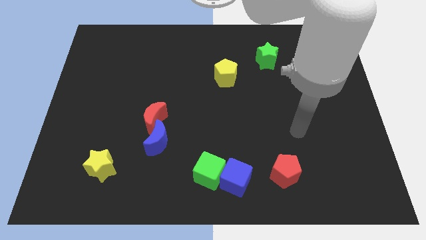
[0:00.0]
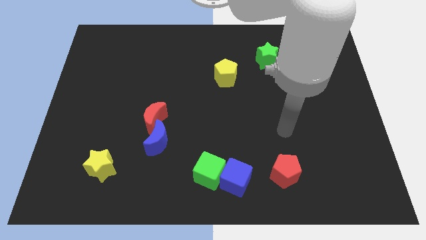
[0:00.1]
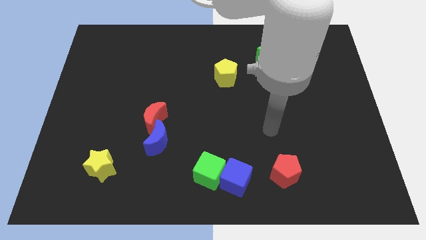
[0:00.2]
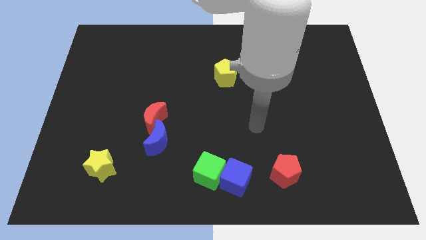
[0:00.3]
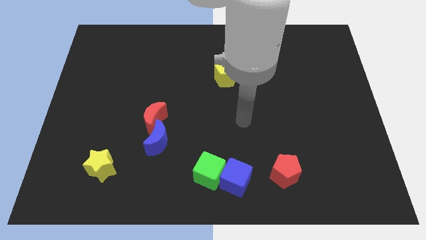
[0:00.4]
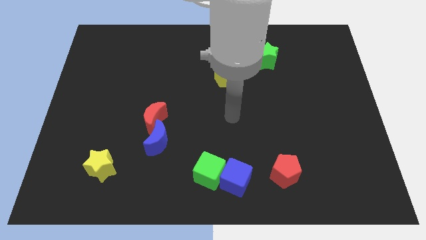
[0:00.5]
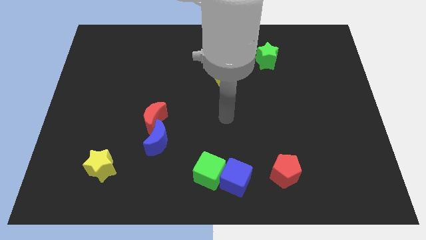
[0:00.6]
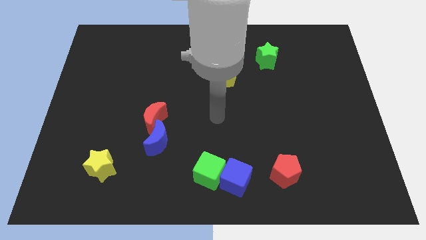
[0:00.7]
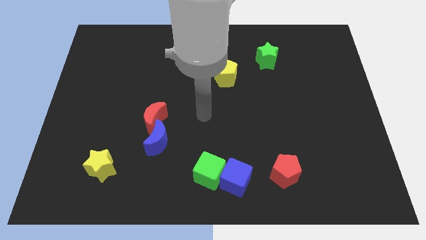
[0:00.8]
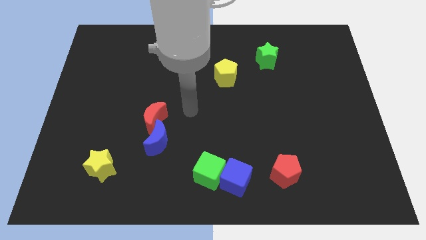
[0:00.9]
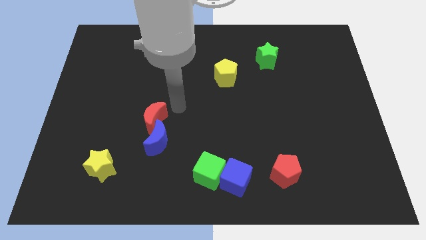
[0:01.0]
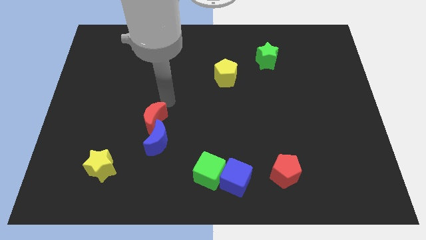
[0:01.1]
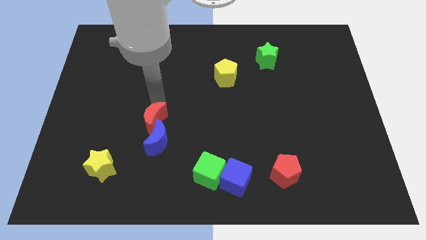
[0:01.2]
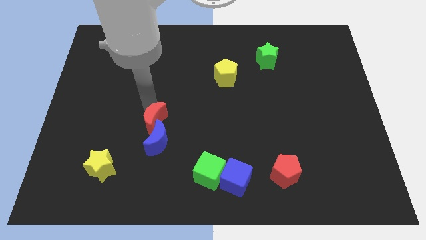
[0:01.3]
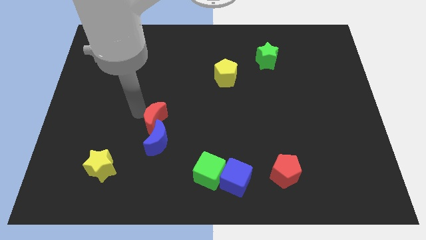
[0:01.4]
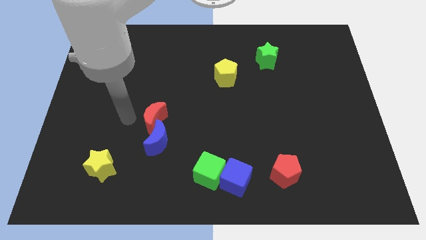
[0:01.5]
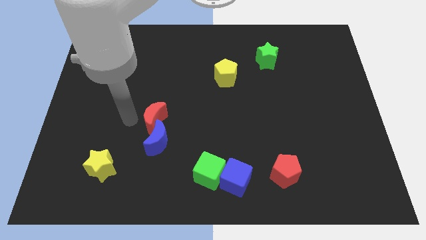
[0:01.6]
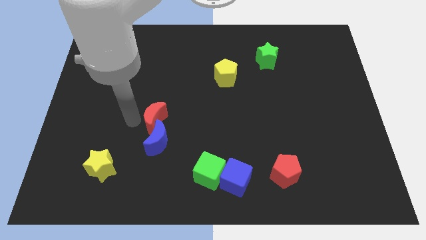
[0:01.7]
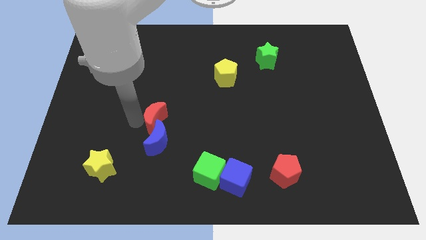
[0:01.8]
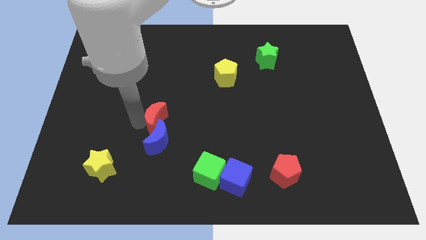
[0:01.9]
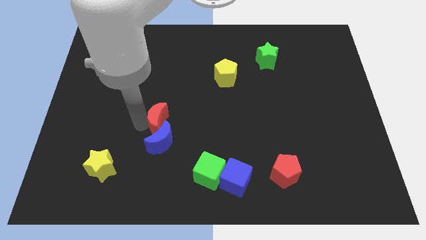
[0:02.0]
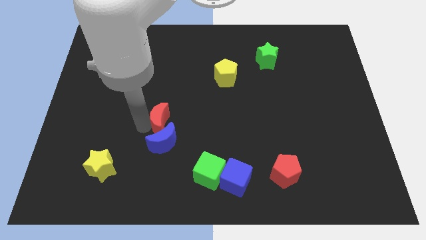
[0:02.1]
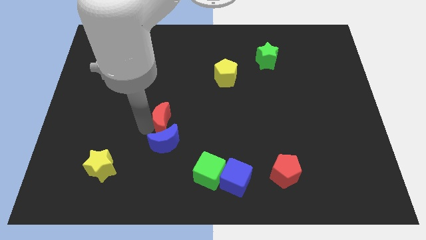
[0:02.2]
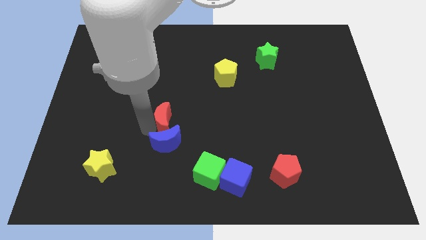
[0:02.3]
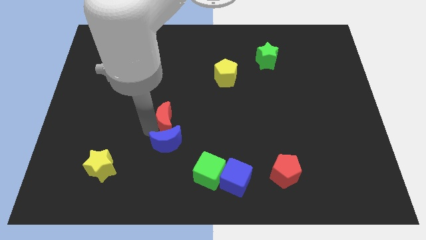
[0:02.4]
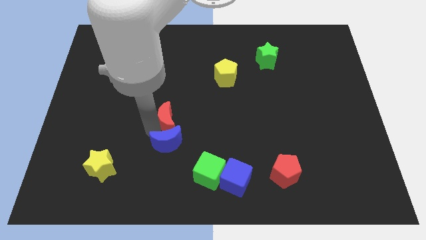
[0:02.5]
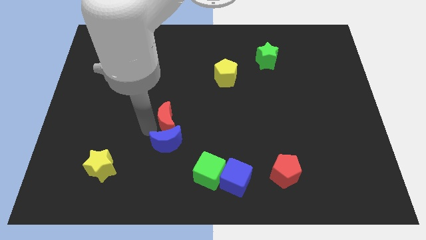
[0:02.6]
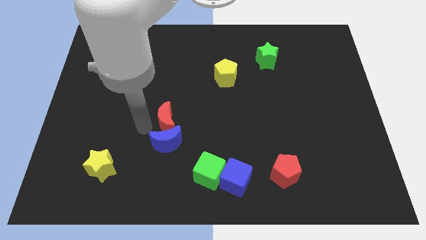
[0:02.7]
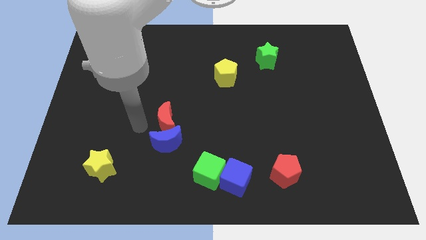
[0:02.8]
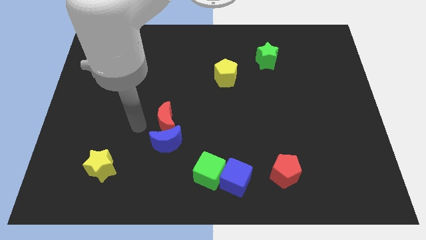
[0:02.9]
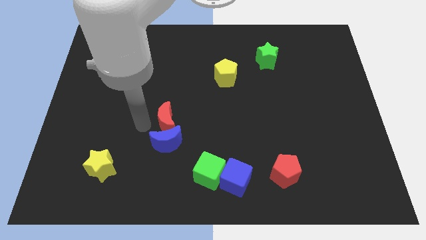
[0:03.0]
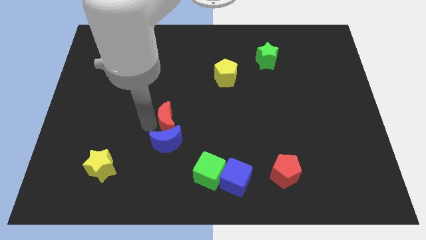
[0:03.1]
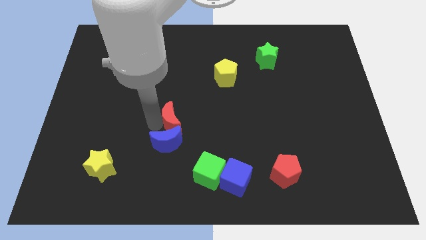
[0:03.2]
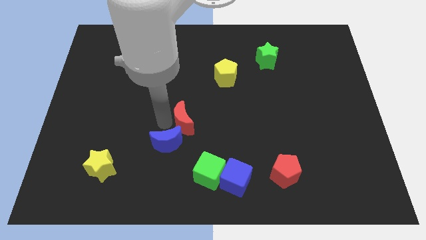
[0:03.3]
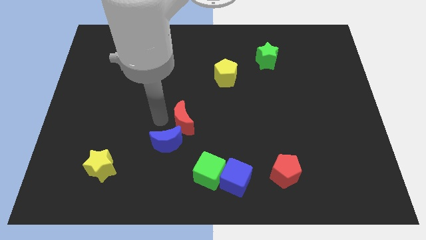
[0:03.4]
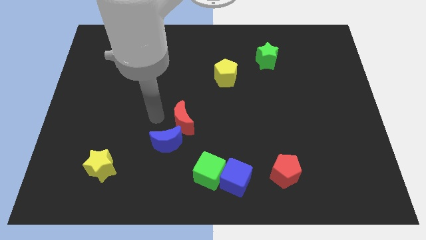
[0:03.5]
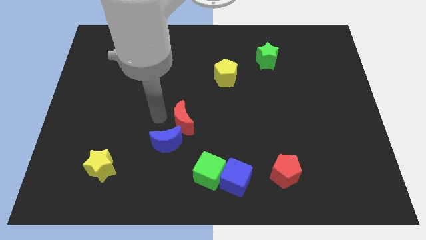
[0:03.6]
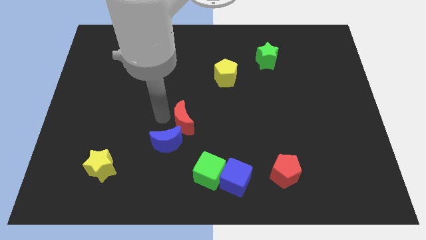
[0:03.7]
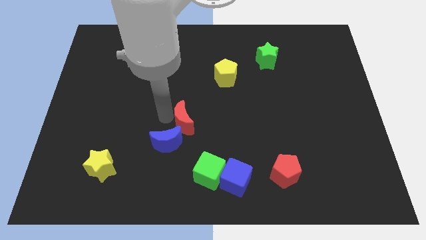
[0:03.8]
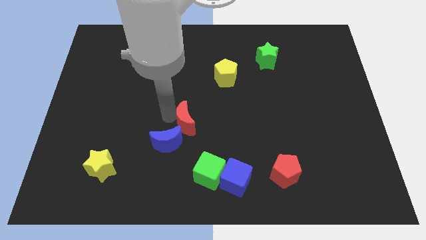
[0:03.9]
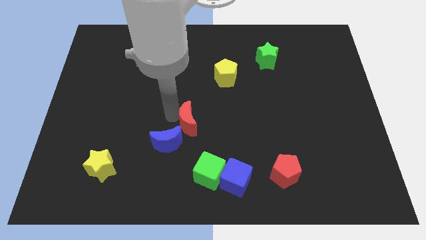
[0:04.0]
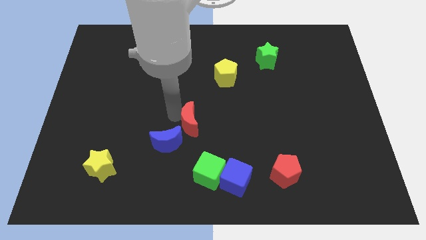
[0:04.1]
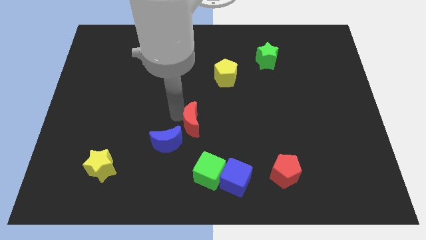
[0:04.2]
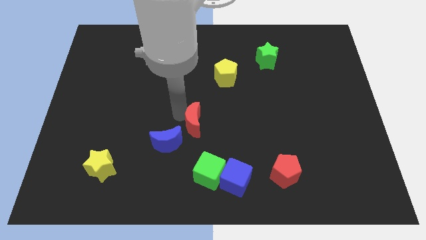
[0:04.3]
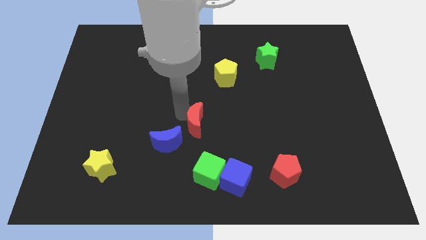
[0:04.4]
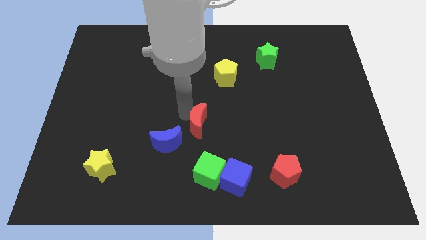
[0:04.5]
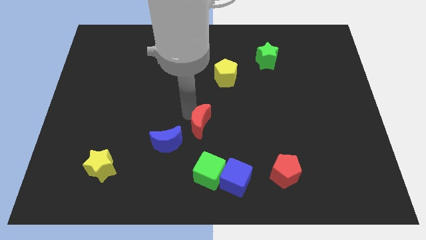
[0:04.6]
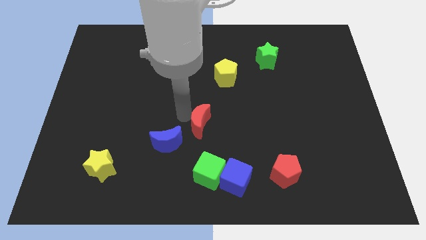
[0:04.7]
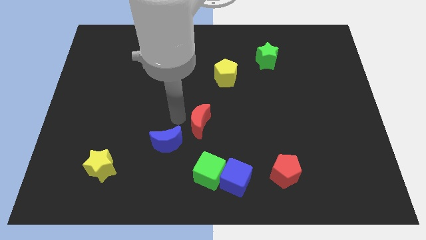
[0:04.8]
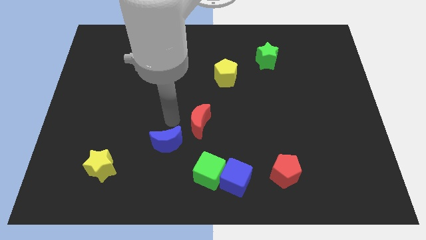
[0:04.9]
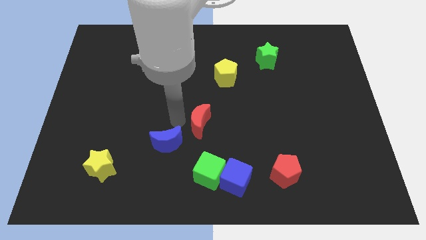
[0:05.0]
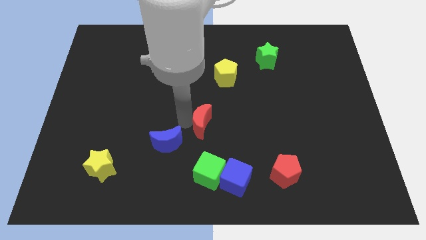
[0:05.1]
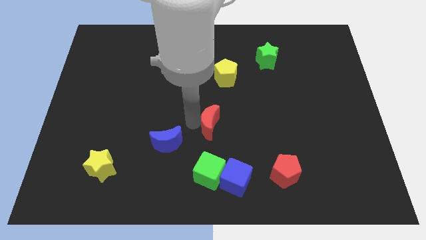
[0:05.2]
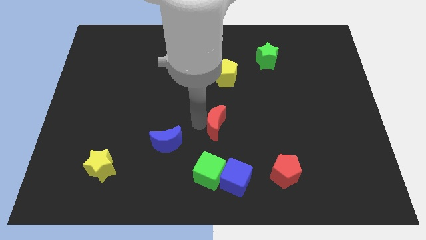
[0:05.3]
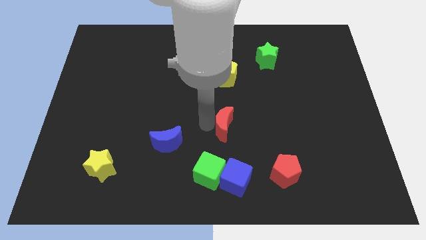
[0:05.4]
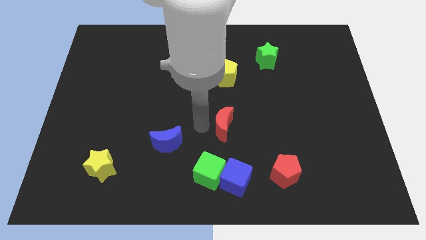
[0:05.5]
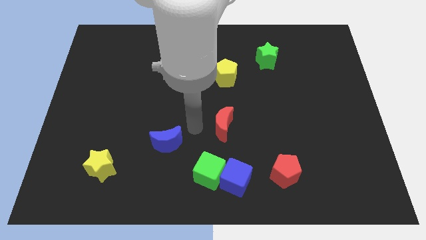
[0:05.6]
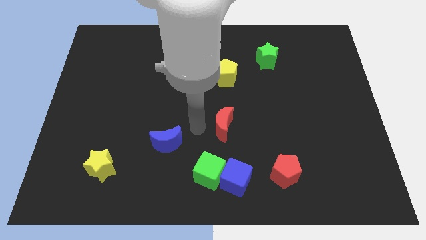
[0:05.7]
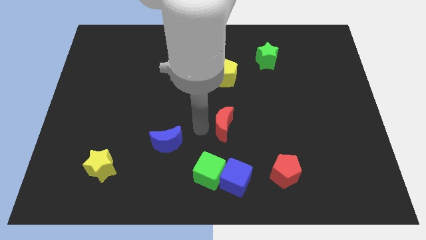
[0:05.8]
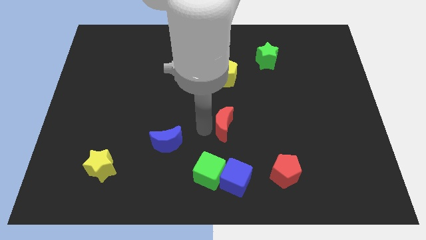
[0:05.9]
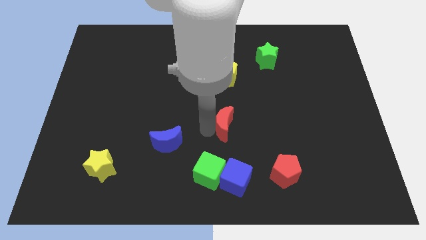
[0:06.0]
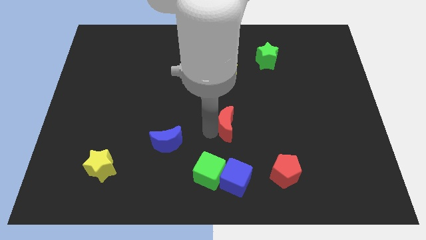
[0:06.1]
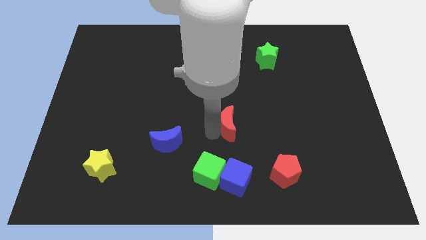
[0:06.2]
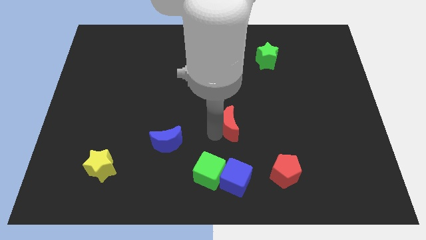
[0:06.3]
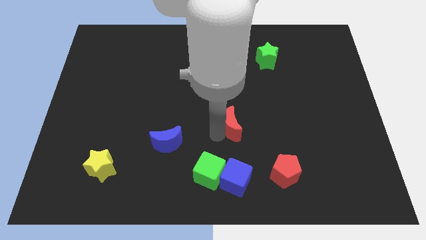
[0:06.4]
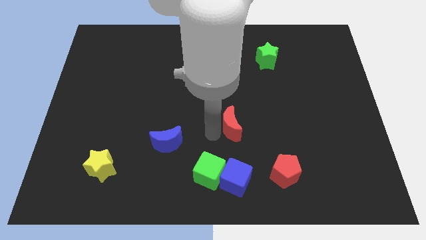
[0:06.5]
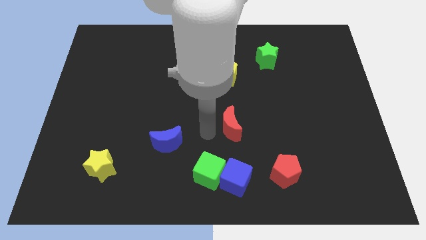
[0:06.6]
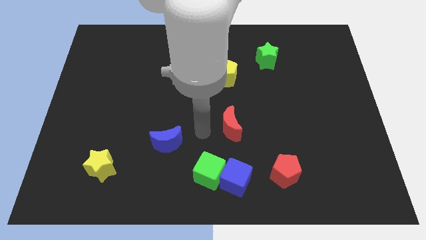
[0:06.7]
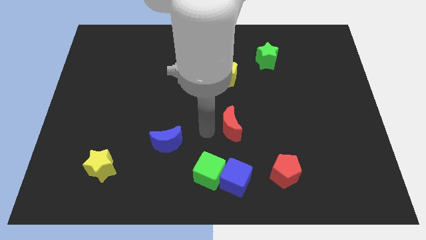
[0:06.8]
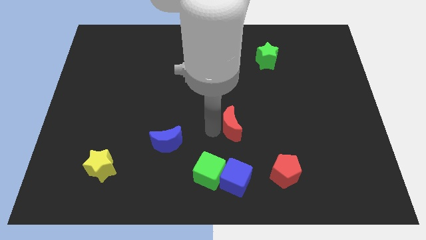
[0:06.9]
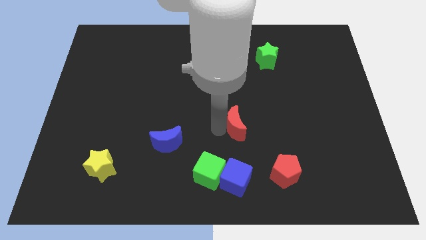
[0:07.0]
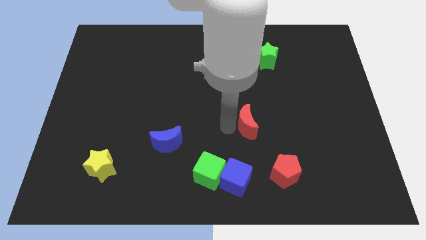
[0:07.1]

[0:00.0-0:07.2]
push the red moon right

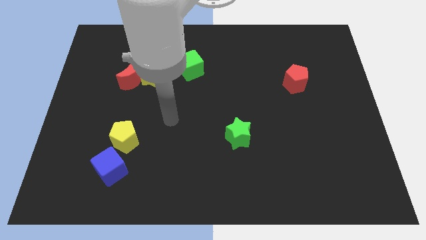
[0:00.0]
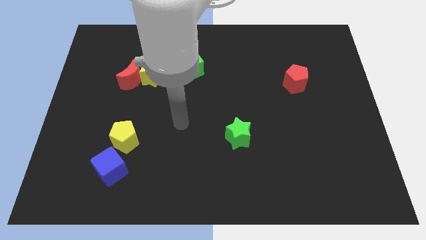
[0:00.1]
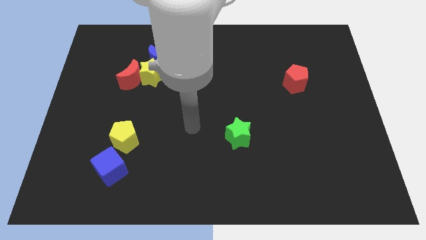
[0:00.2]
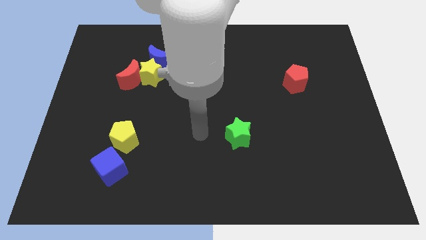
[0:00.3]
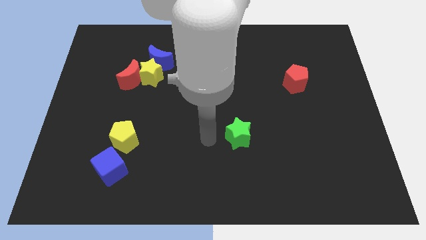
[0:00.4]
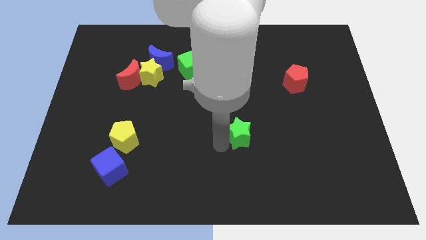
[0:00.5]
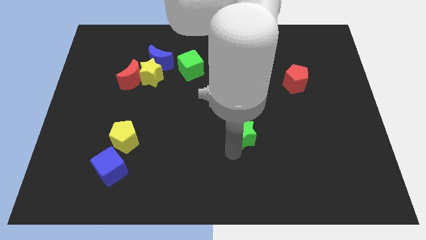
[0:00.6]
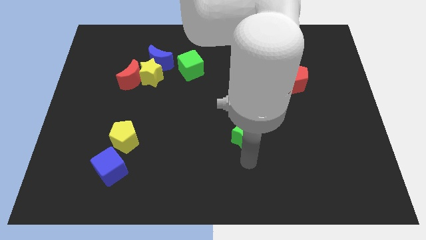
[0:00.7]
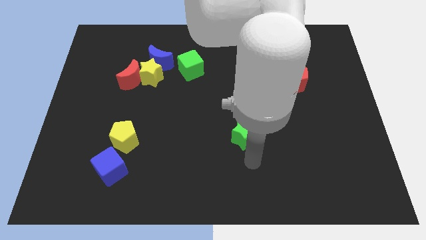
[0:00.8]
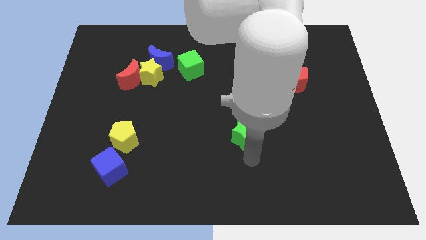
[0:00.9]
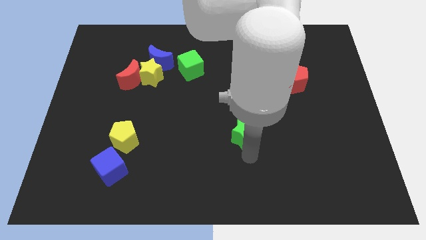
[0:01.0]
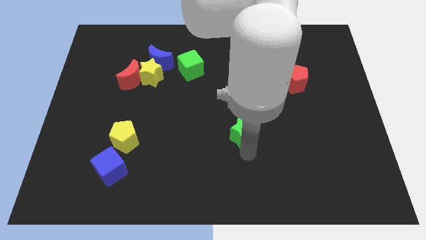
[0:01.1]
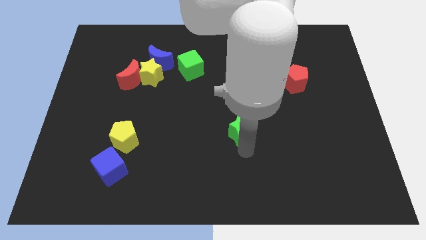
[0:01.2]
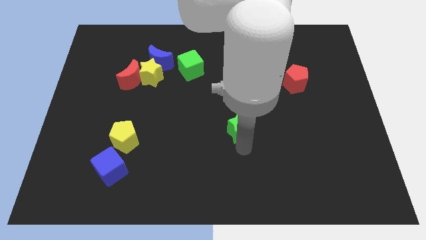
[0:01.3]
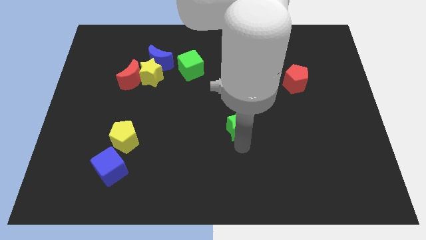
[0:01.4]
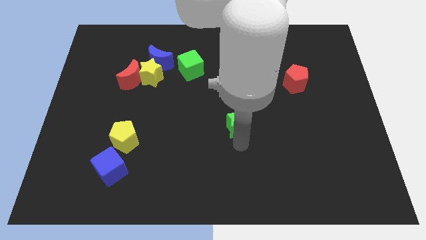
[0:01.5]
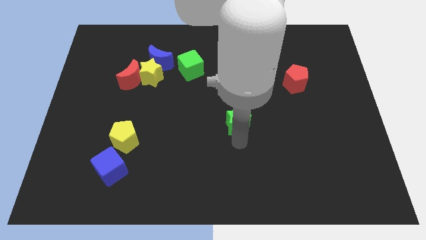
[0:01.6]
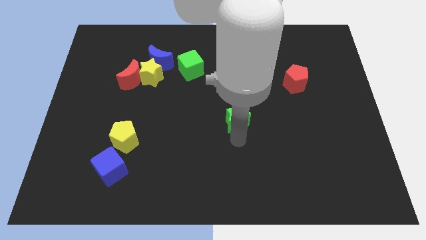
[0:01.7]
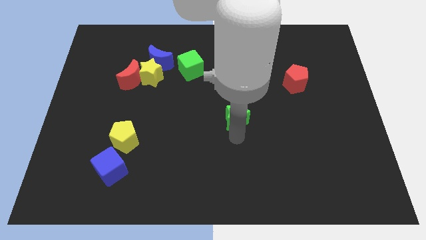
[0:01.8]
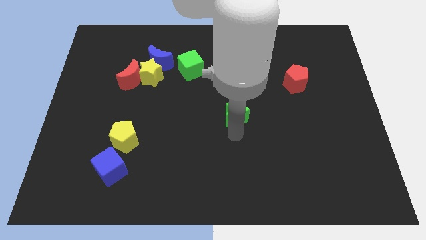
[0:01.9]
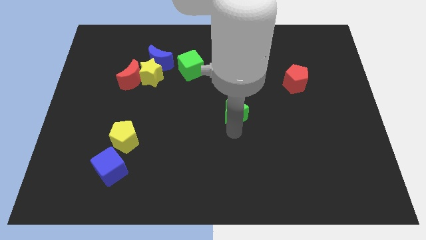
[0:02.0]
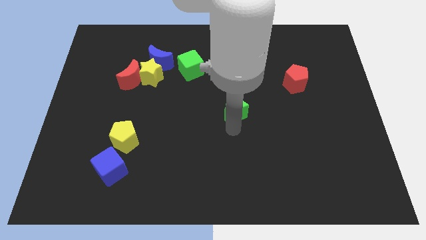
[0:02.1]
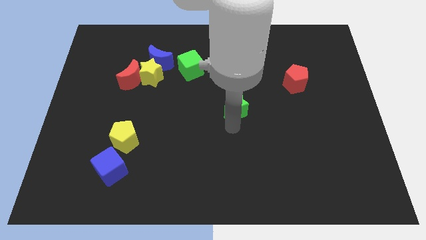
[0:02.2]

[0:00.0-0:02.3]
push the green star a bit upwards
